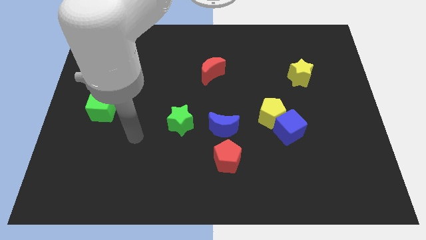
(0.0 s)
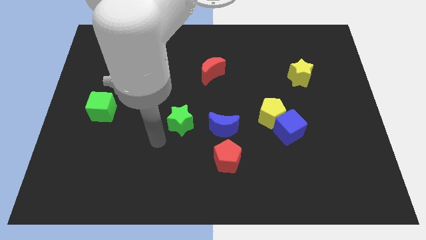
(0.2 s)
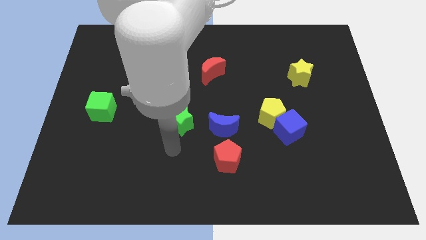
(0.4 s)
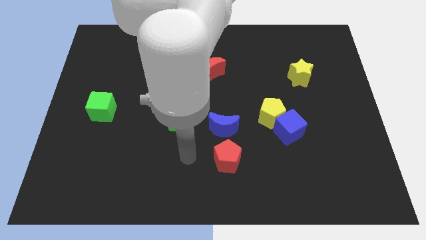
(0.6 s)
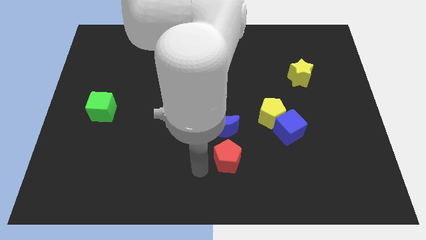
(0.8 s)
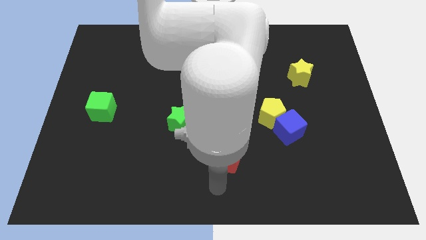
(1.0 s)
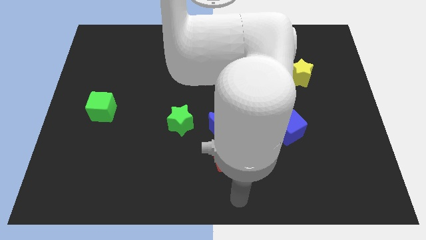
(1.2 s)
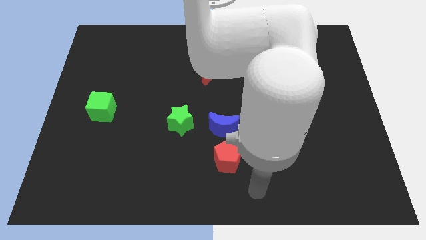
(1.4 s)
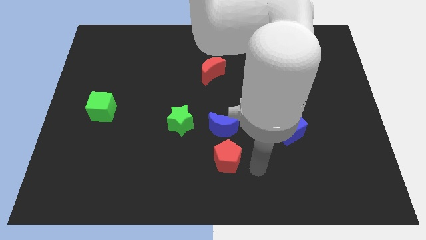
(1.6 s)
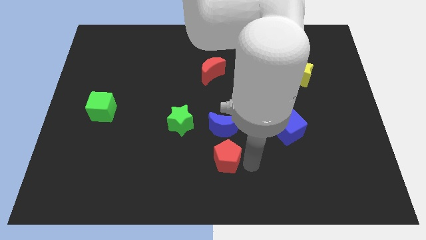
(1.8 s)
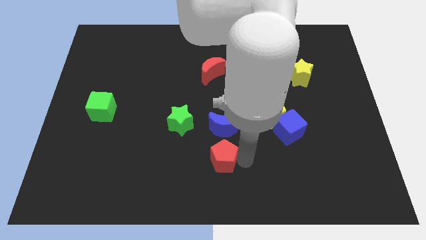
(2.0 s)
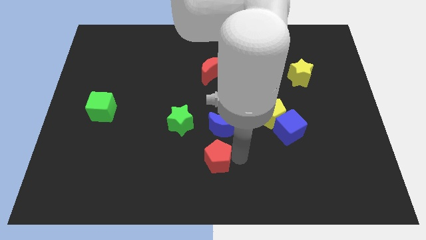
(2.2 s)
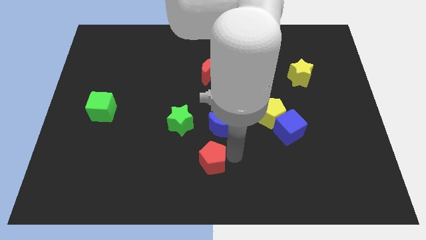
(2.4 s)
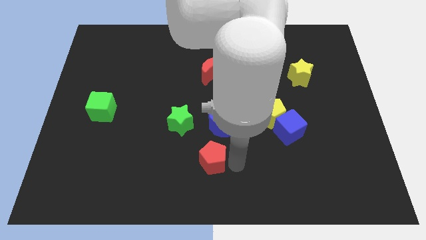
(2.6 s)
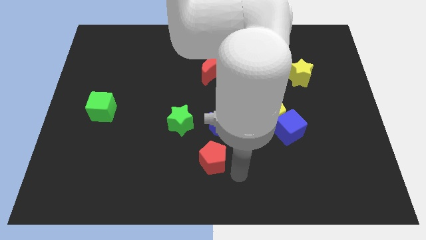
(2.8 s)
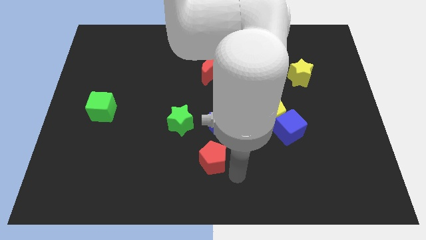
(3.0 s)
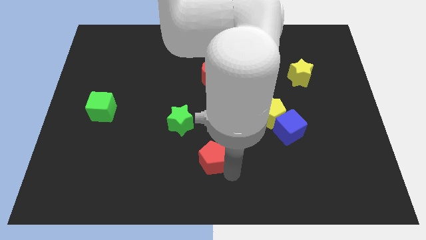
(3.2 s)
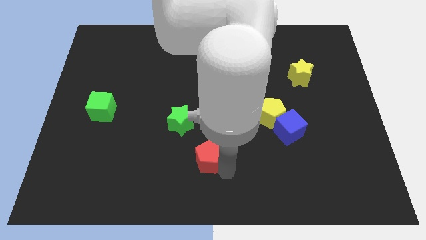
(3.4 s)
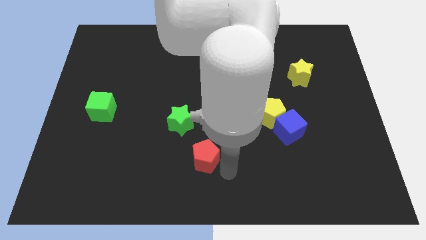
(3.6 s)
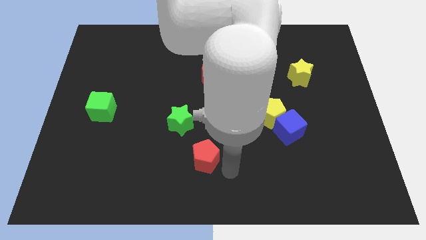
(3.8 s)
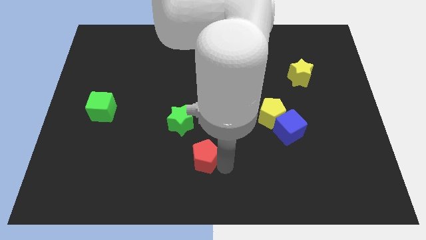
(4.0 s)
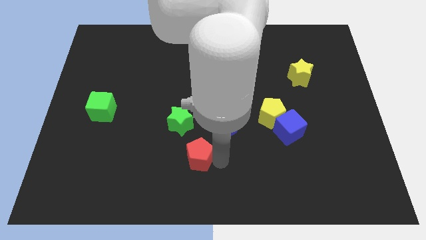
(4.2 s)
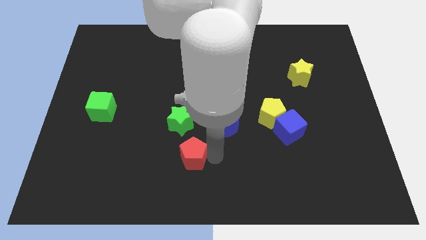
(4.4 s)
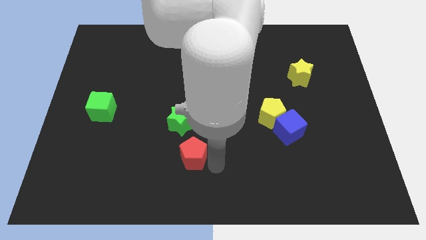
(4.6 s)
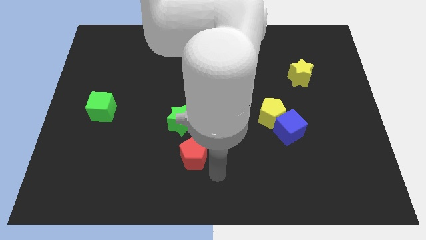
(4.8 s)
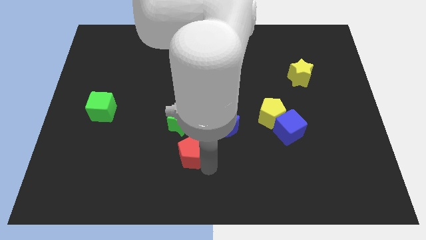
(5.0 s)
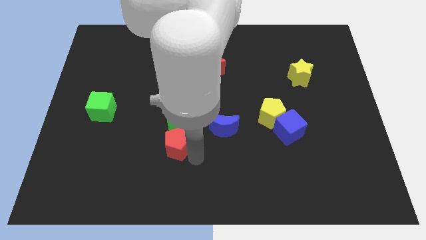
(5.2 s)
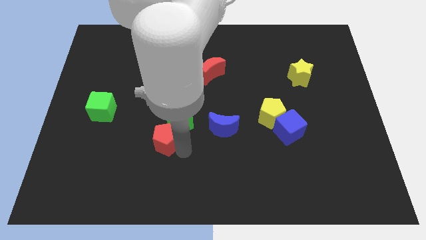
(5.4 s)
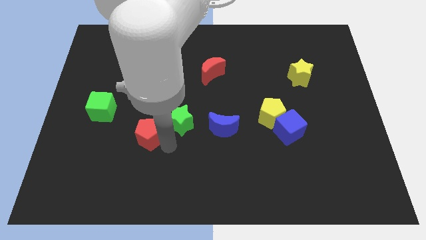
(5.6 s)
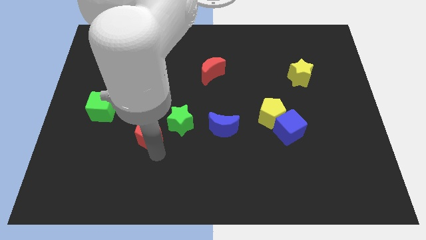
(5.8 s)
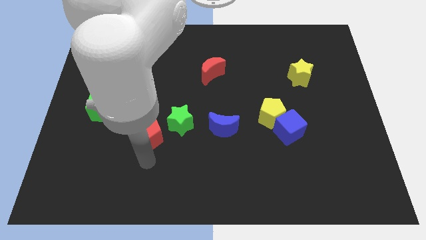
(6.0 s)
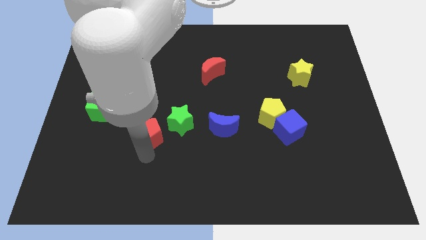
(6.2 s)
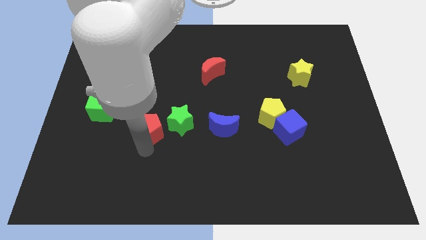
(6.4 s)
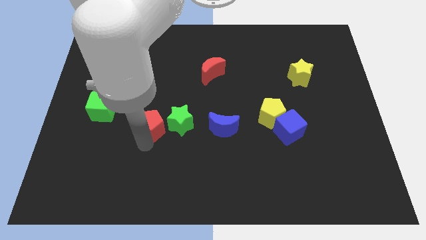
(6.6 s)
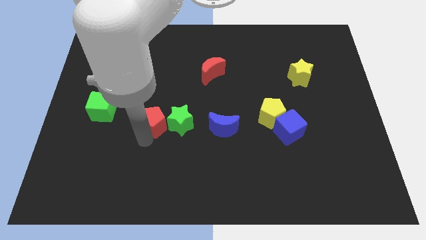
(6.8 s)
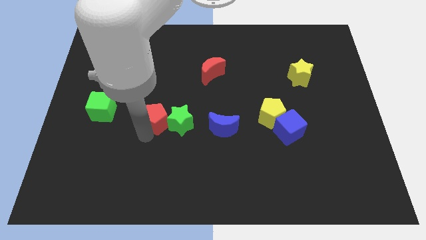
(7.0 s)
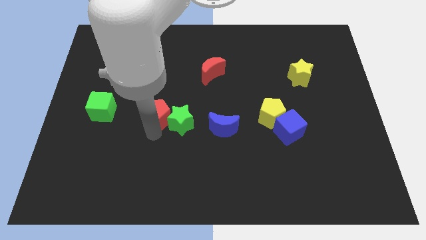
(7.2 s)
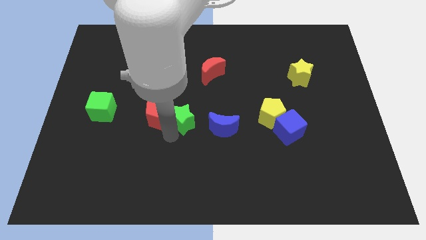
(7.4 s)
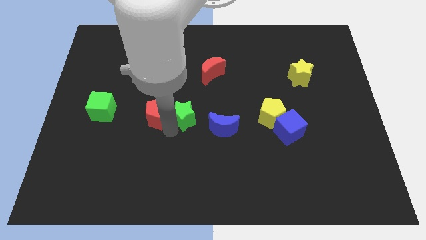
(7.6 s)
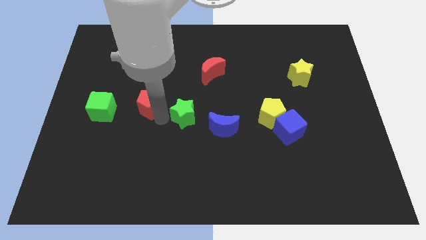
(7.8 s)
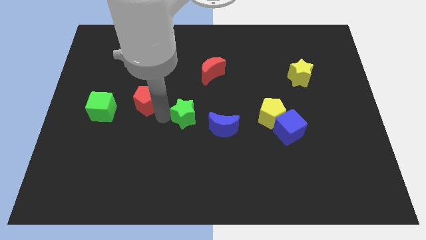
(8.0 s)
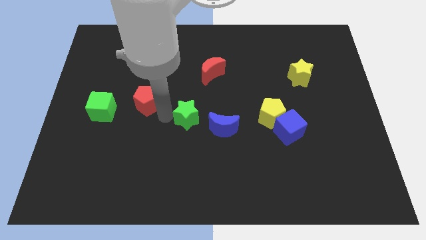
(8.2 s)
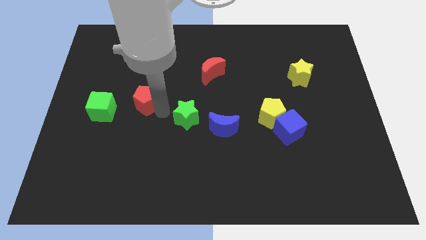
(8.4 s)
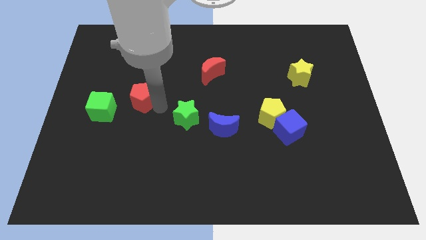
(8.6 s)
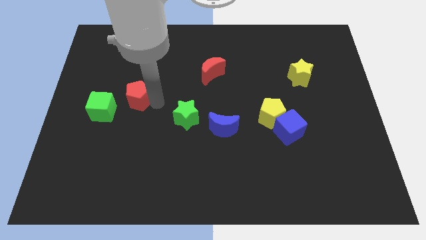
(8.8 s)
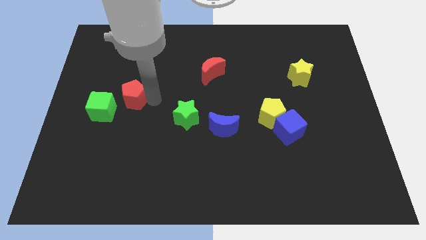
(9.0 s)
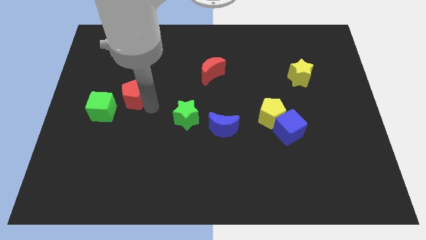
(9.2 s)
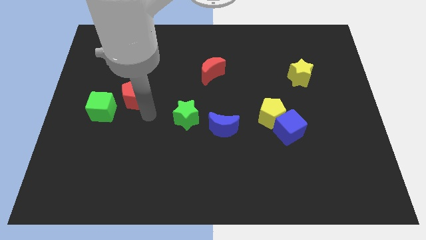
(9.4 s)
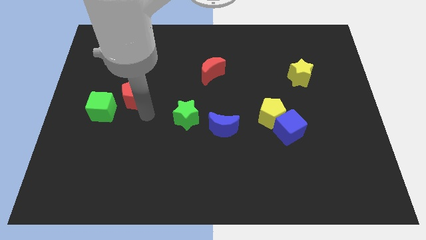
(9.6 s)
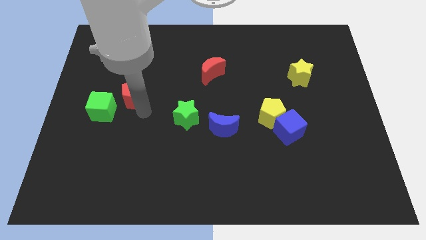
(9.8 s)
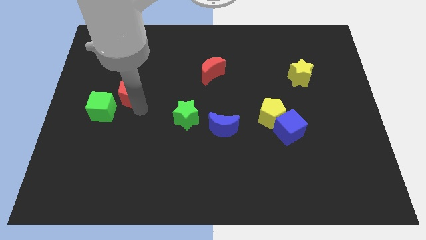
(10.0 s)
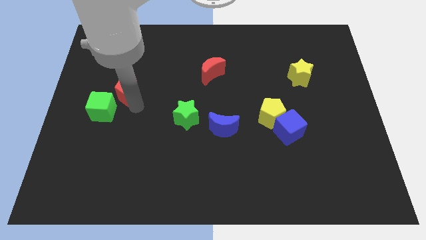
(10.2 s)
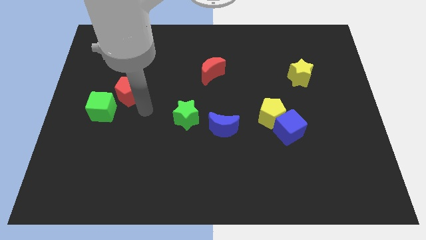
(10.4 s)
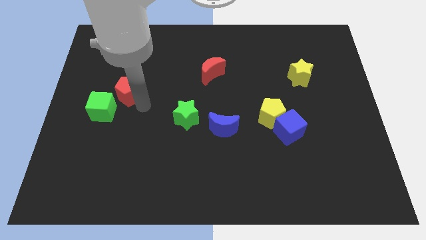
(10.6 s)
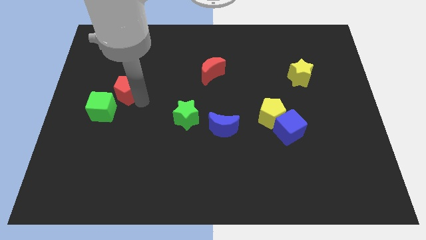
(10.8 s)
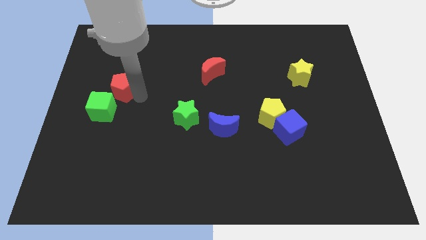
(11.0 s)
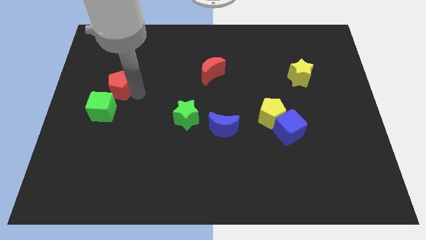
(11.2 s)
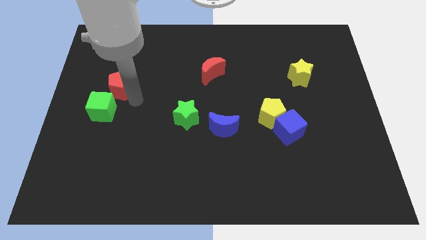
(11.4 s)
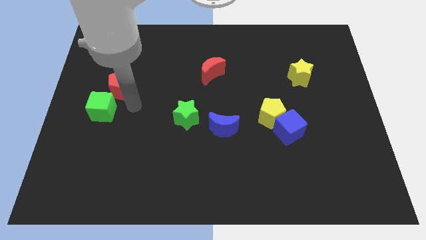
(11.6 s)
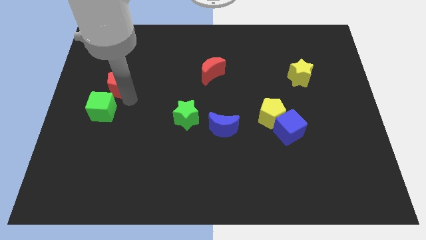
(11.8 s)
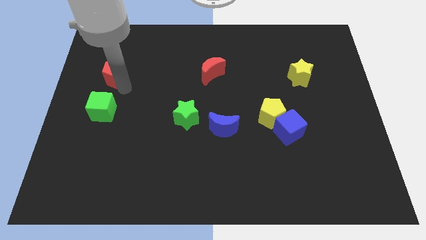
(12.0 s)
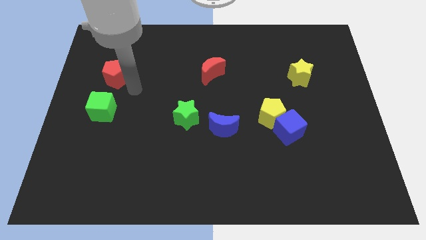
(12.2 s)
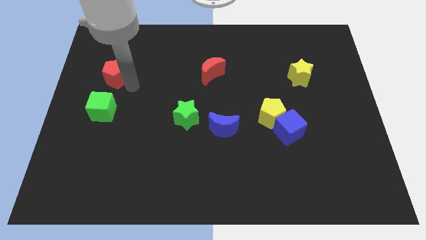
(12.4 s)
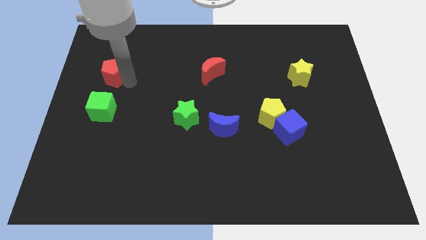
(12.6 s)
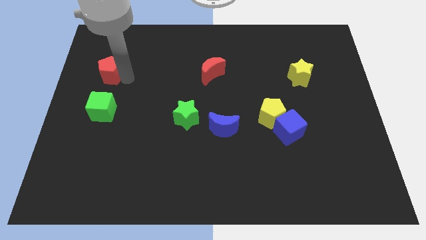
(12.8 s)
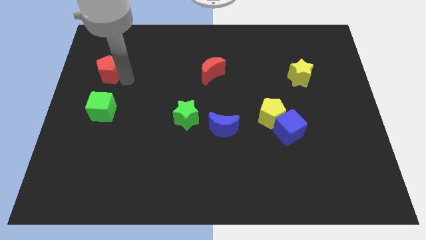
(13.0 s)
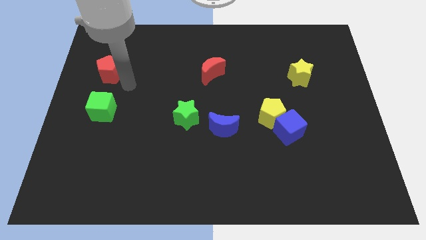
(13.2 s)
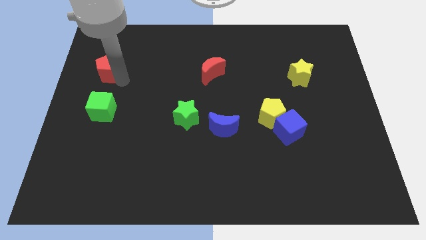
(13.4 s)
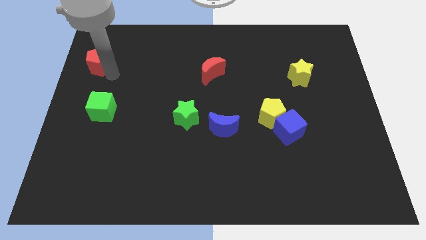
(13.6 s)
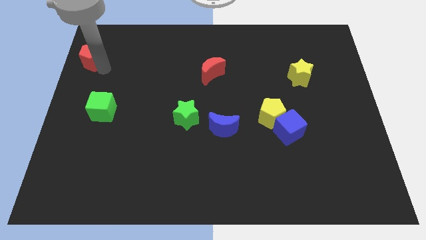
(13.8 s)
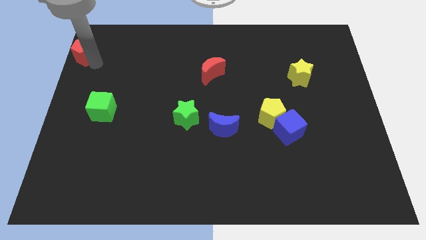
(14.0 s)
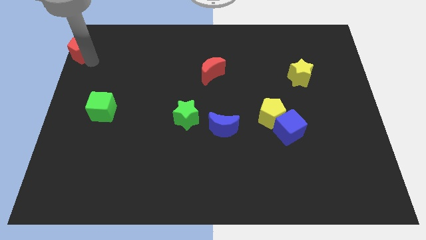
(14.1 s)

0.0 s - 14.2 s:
push the red pentagon to the top left of the board
